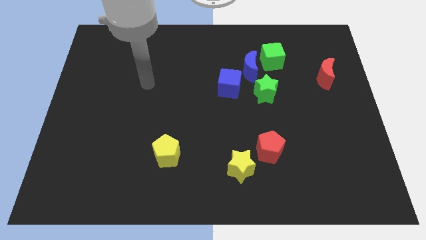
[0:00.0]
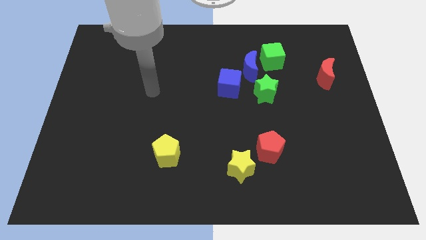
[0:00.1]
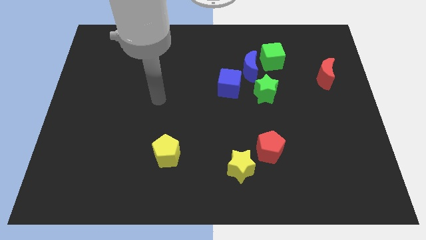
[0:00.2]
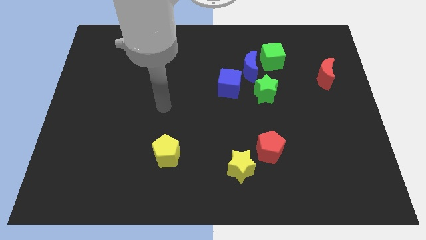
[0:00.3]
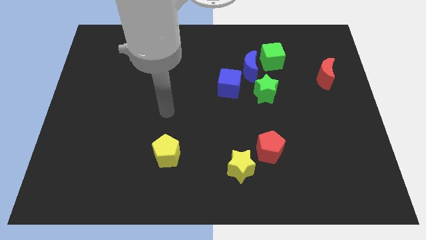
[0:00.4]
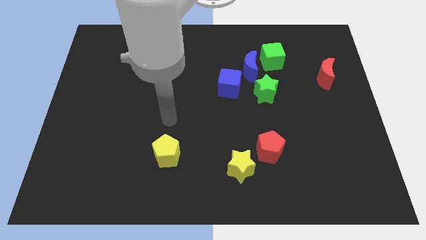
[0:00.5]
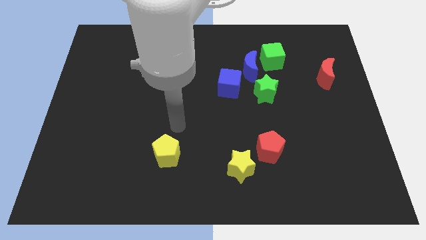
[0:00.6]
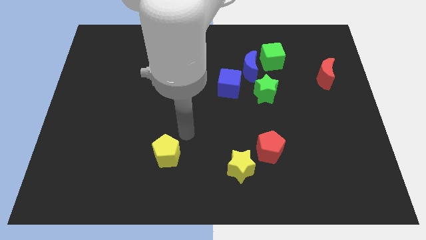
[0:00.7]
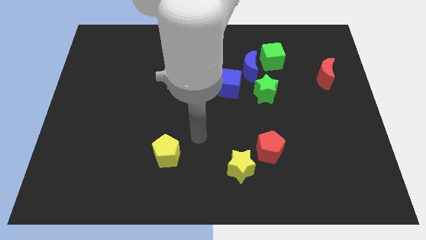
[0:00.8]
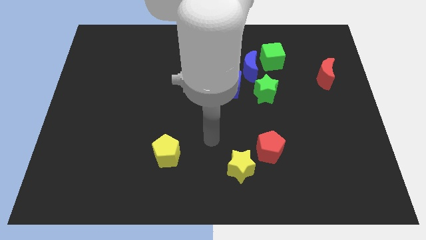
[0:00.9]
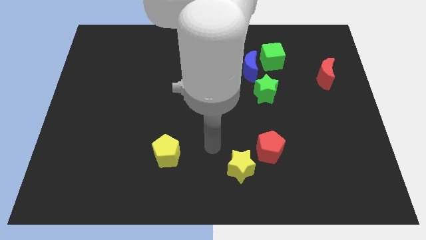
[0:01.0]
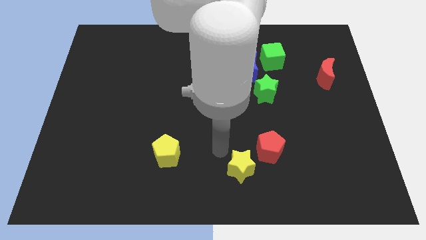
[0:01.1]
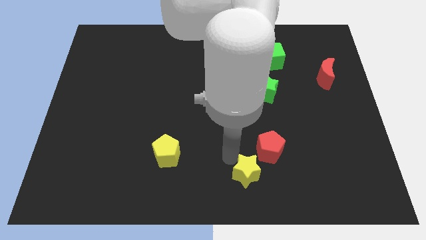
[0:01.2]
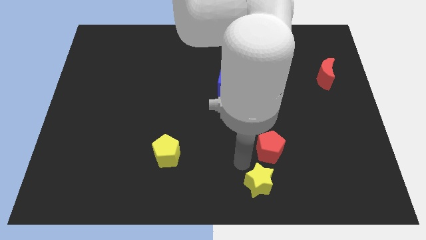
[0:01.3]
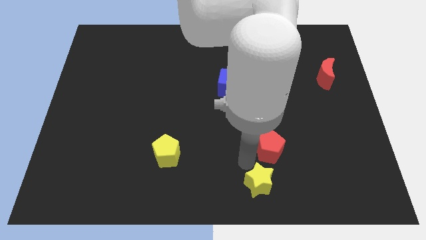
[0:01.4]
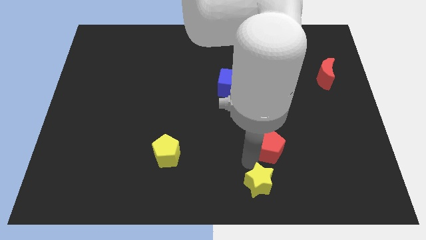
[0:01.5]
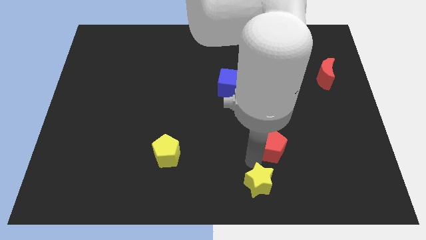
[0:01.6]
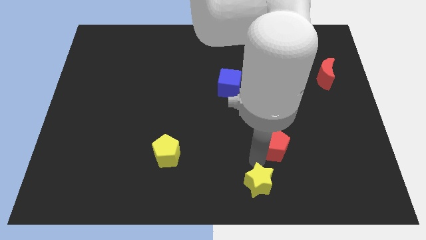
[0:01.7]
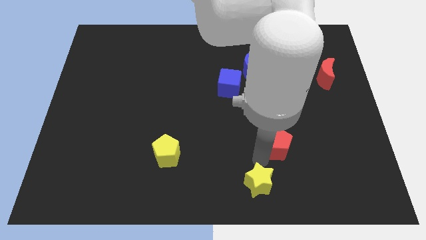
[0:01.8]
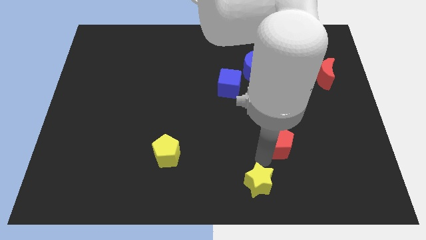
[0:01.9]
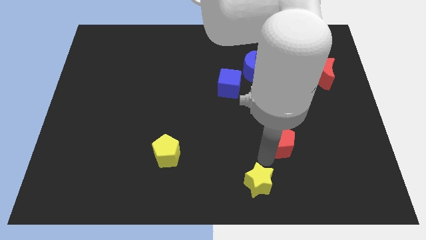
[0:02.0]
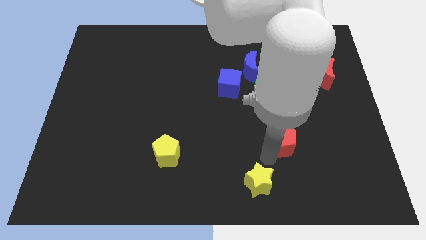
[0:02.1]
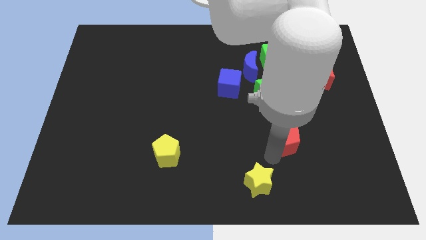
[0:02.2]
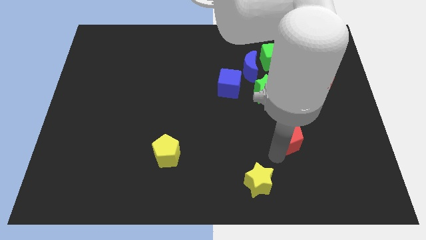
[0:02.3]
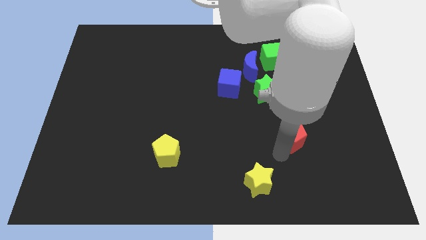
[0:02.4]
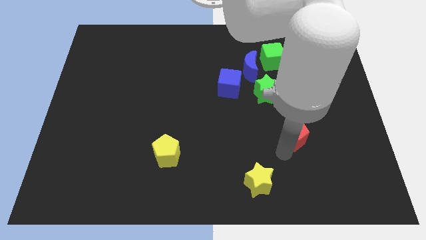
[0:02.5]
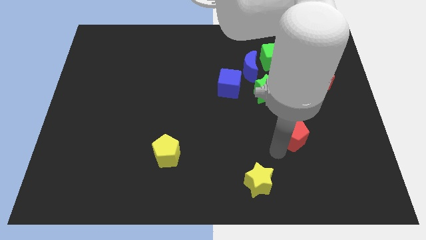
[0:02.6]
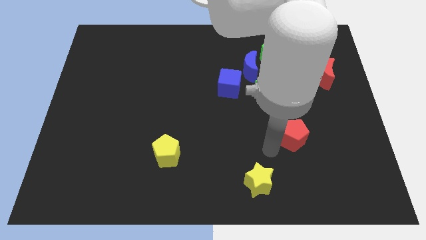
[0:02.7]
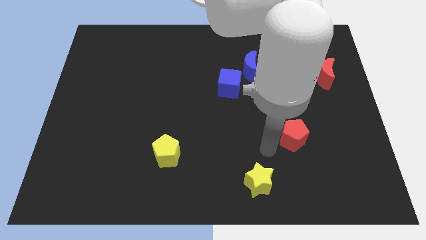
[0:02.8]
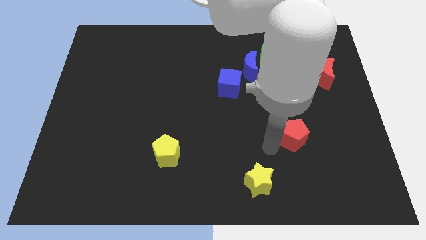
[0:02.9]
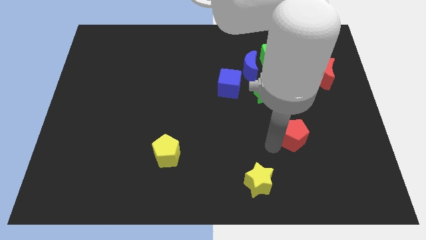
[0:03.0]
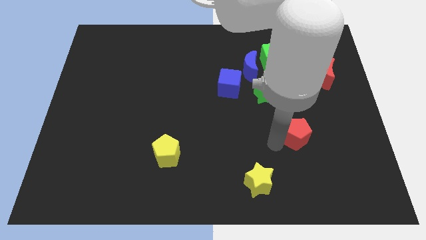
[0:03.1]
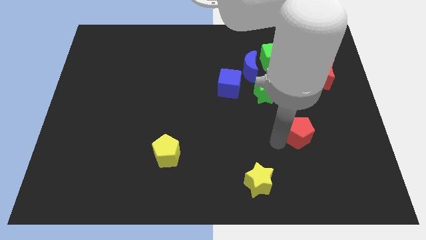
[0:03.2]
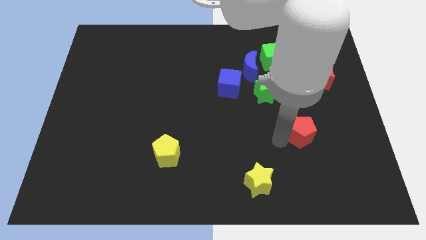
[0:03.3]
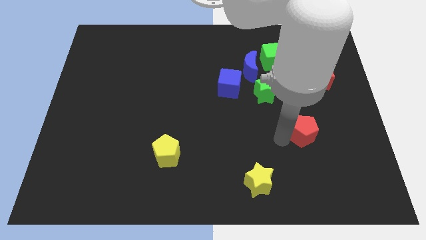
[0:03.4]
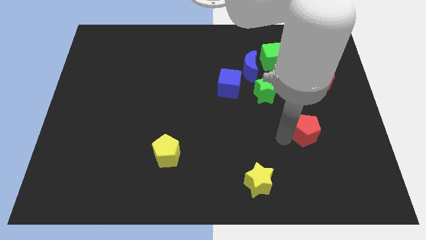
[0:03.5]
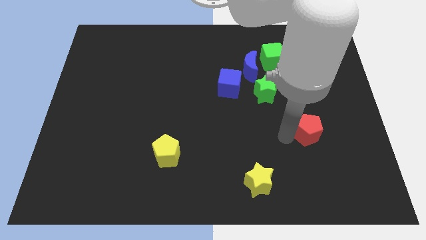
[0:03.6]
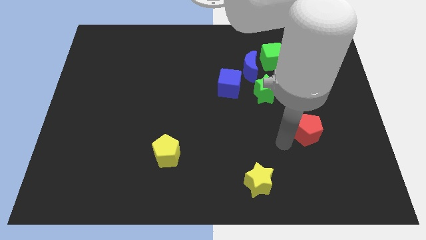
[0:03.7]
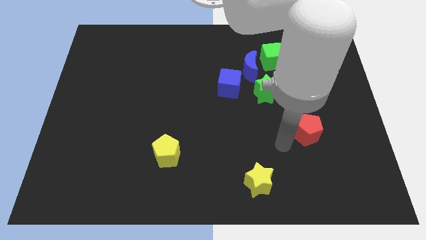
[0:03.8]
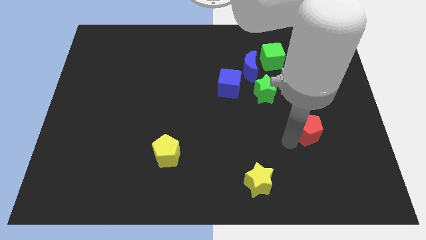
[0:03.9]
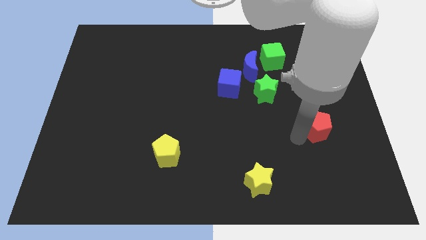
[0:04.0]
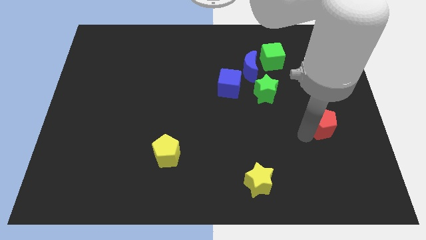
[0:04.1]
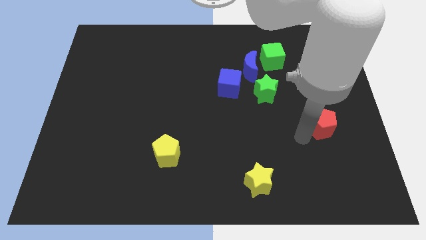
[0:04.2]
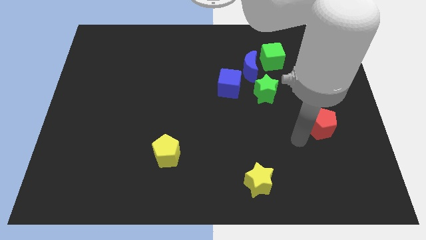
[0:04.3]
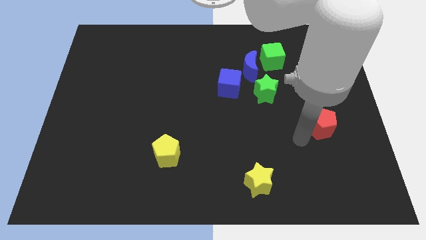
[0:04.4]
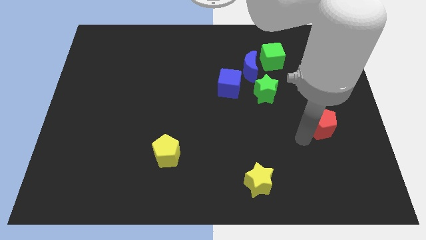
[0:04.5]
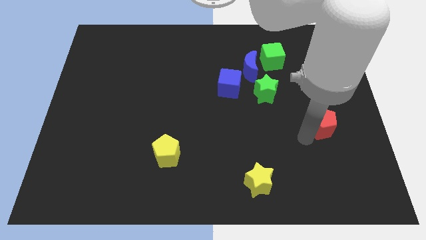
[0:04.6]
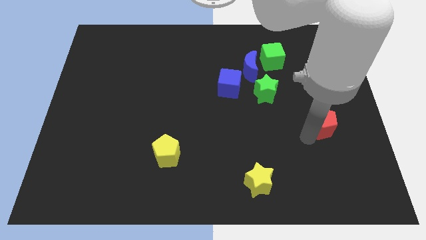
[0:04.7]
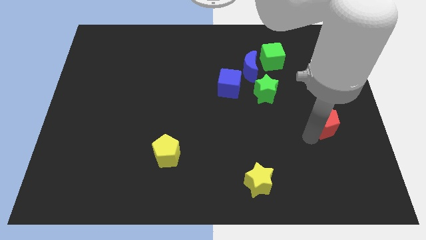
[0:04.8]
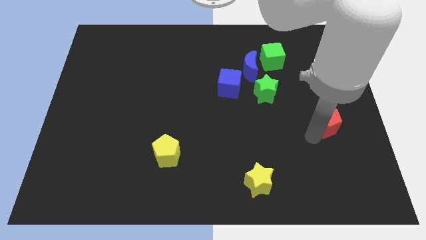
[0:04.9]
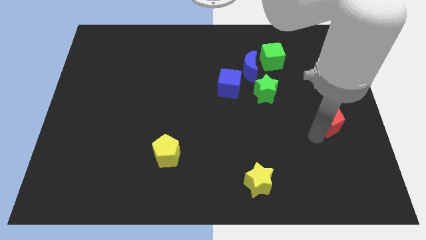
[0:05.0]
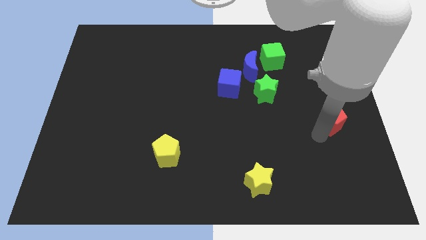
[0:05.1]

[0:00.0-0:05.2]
slide the red pentagon to the right side of the board

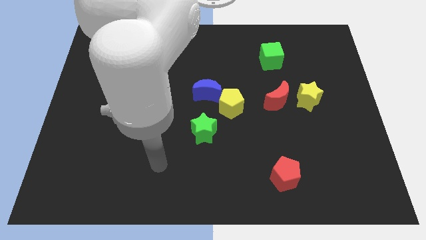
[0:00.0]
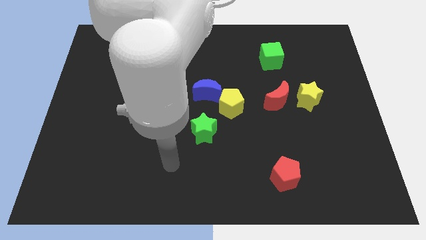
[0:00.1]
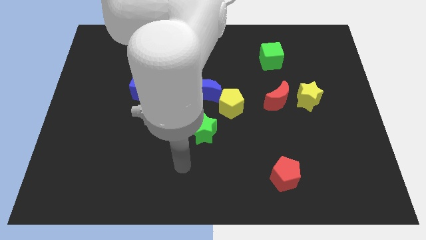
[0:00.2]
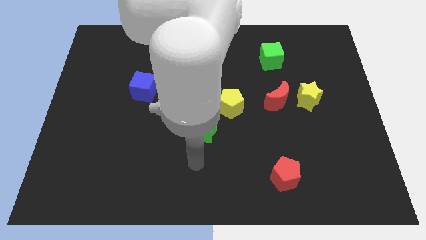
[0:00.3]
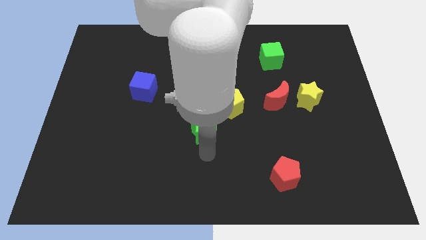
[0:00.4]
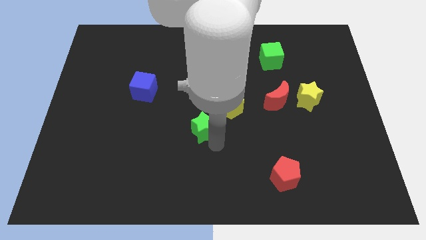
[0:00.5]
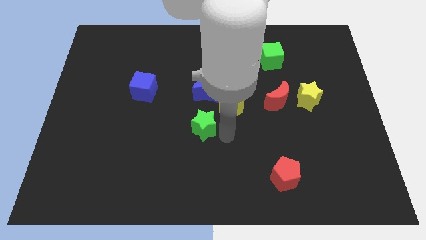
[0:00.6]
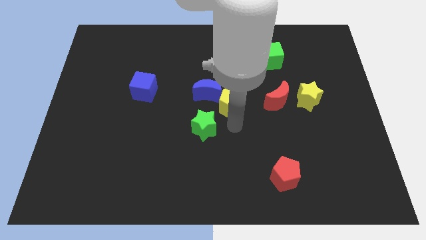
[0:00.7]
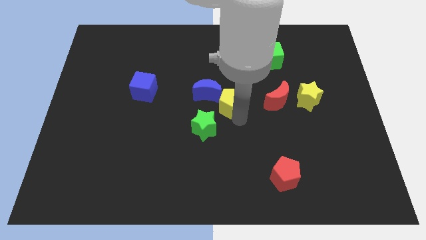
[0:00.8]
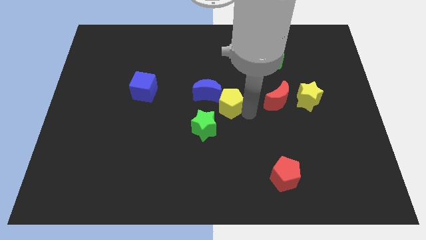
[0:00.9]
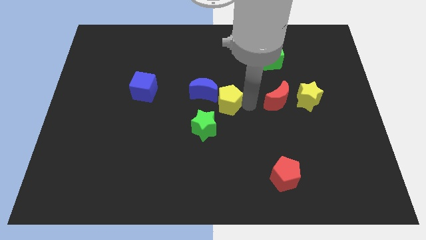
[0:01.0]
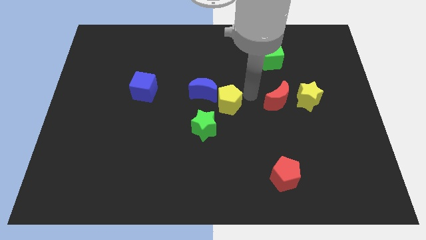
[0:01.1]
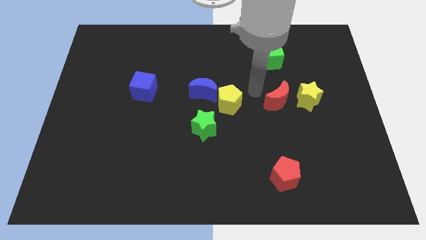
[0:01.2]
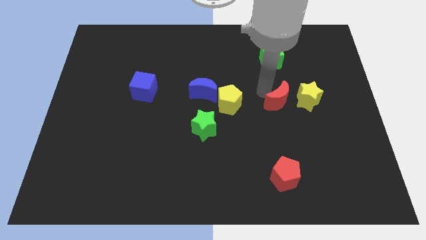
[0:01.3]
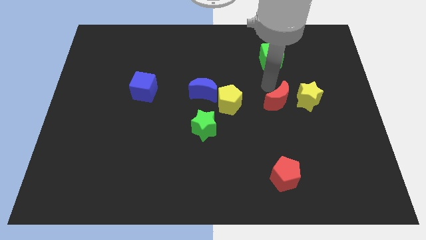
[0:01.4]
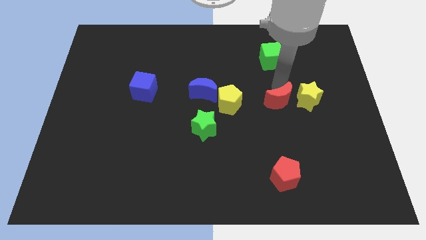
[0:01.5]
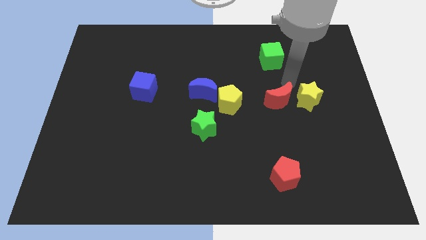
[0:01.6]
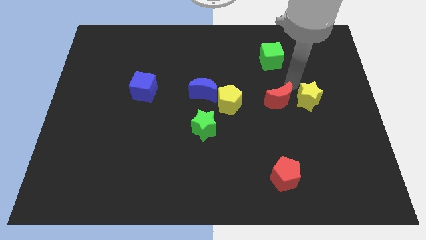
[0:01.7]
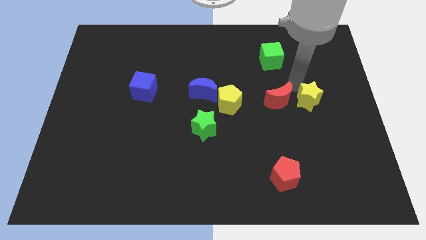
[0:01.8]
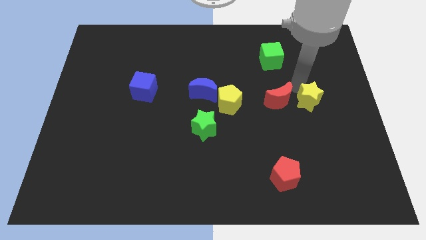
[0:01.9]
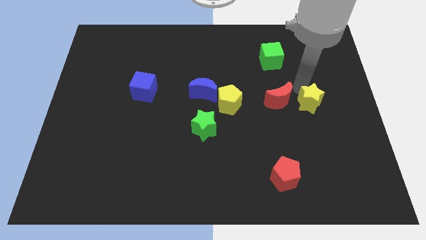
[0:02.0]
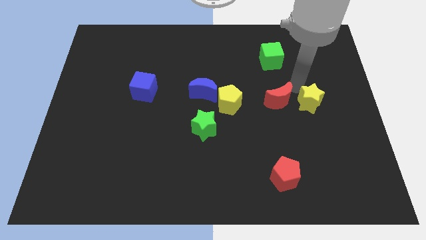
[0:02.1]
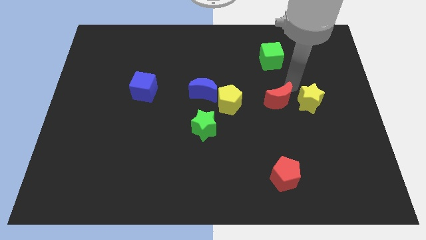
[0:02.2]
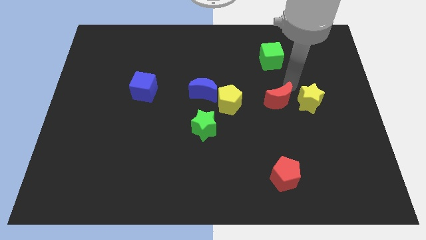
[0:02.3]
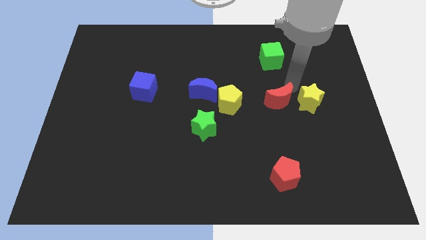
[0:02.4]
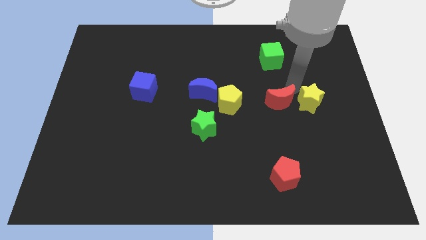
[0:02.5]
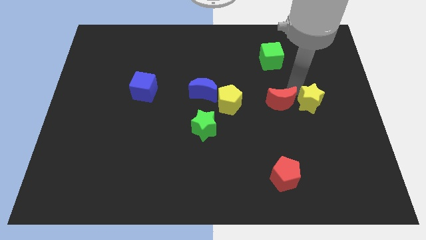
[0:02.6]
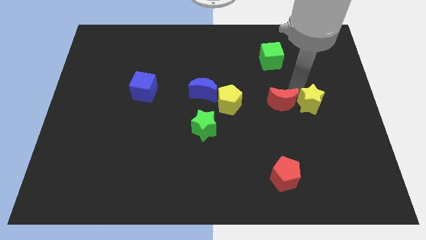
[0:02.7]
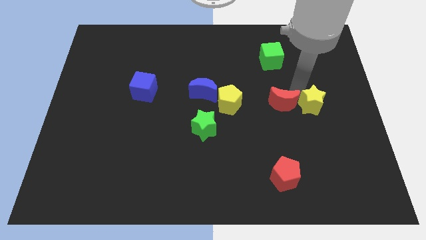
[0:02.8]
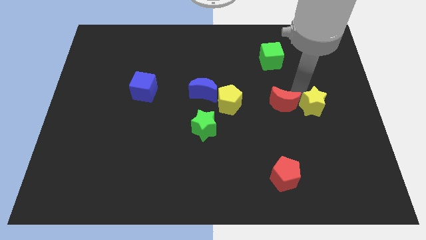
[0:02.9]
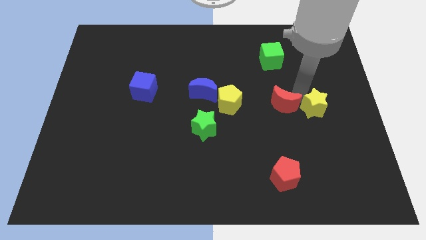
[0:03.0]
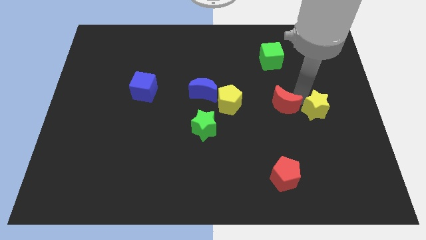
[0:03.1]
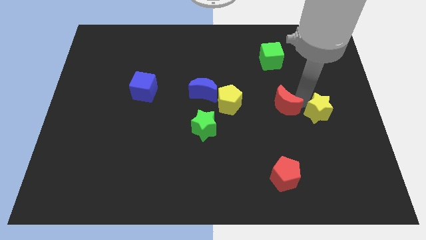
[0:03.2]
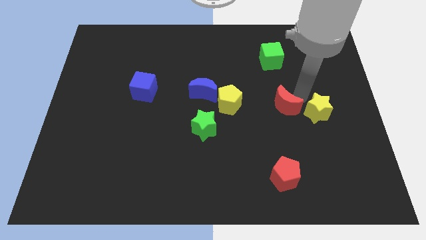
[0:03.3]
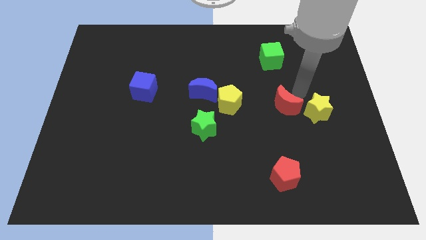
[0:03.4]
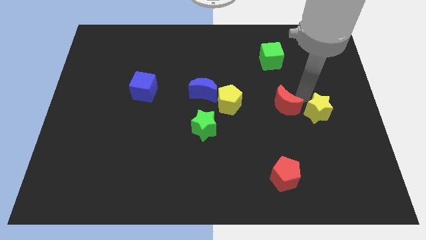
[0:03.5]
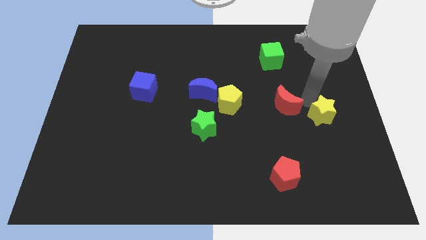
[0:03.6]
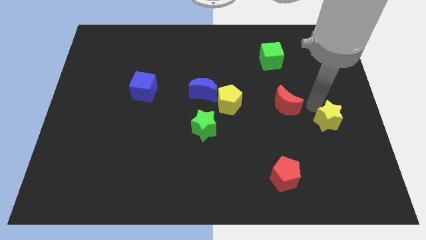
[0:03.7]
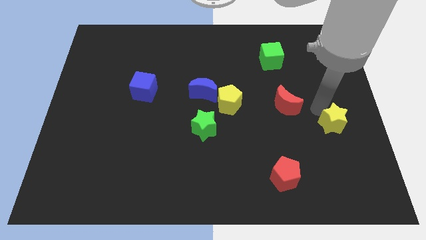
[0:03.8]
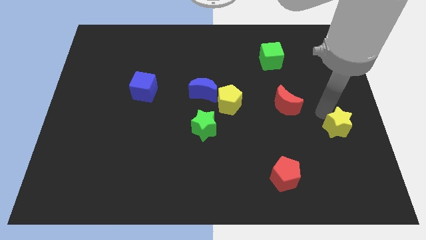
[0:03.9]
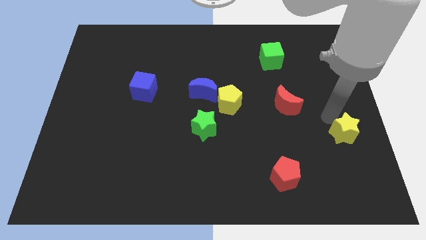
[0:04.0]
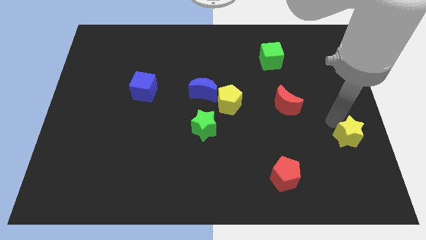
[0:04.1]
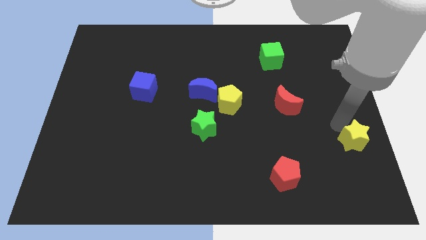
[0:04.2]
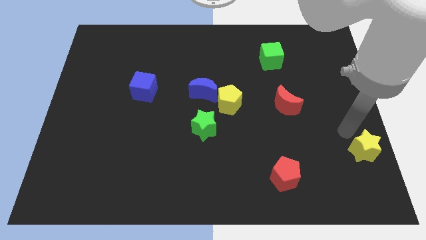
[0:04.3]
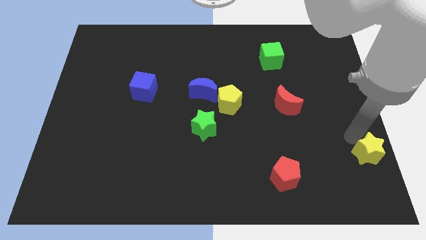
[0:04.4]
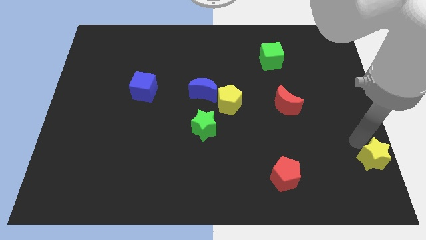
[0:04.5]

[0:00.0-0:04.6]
slide the yellow star to the bottom right of the board
